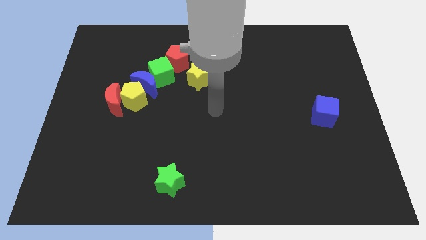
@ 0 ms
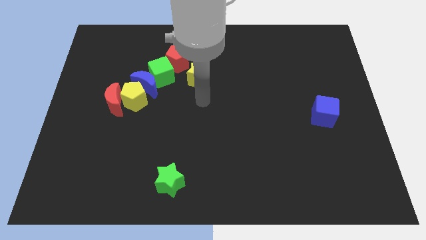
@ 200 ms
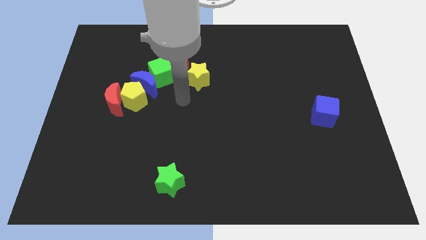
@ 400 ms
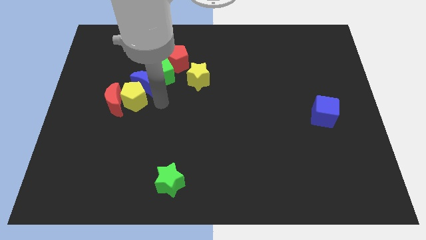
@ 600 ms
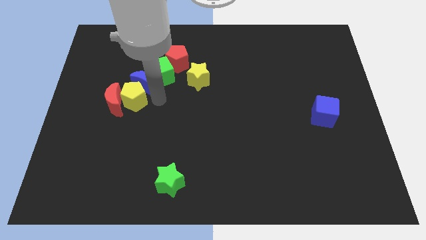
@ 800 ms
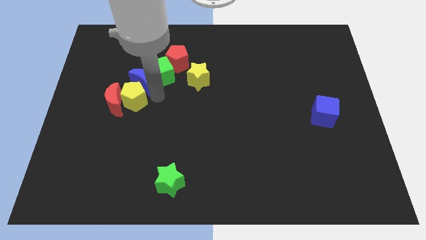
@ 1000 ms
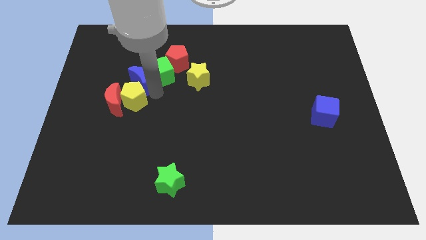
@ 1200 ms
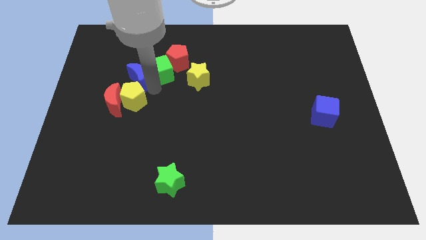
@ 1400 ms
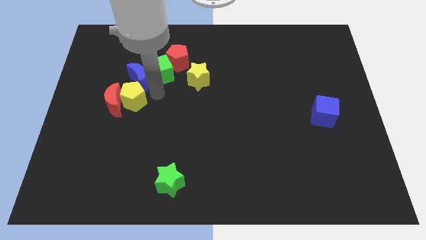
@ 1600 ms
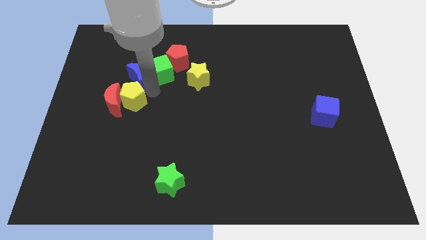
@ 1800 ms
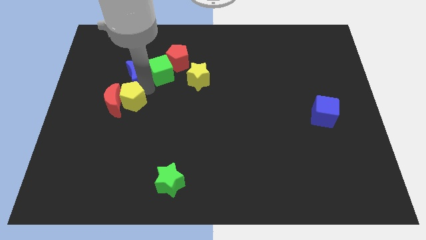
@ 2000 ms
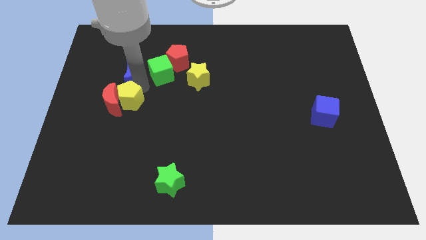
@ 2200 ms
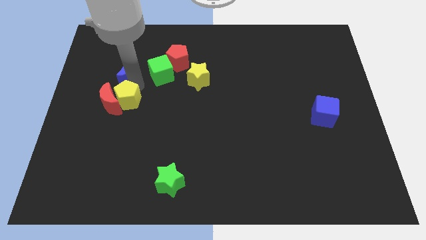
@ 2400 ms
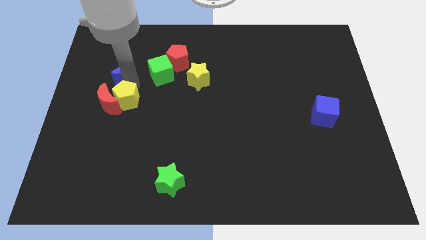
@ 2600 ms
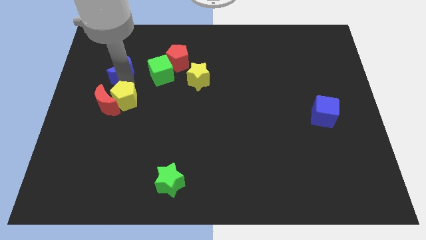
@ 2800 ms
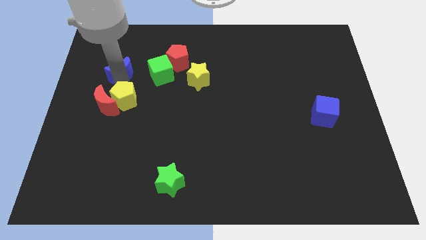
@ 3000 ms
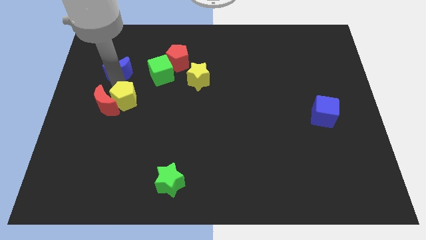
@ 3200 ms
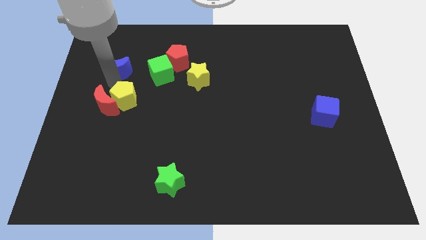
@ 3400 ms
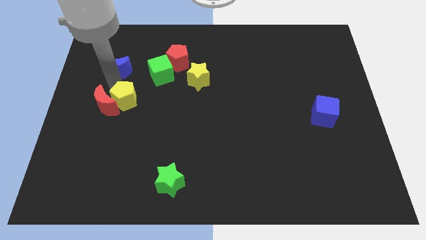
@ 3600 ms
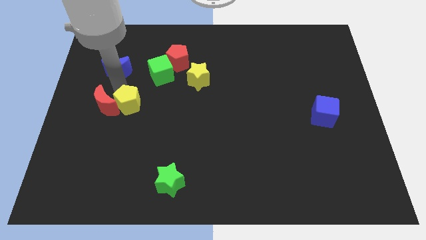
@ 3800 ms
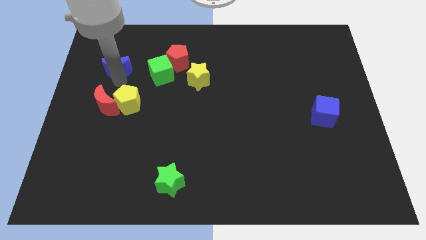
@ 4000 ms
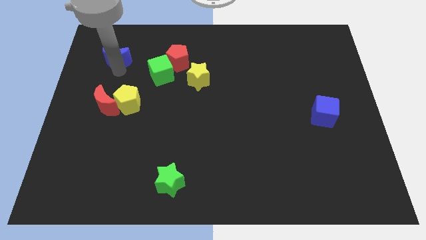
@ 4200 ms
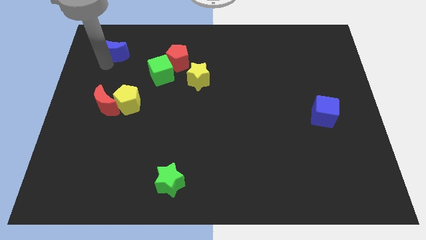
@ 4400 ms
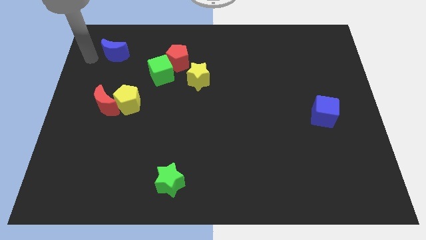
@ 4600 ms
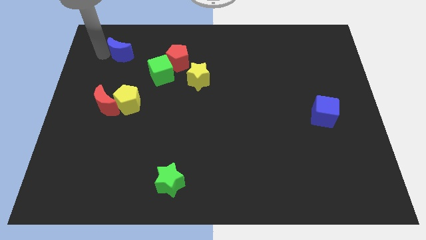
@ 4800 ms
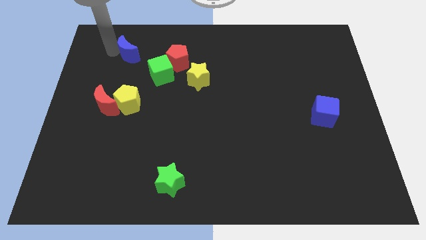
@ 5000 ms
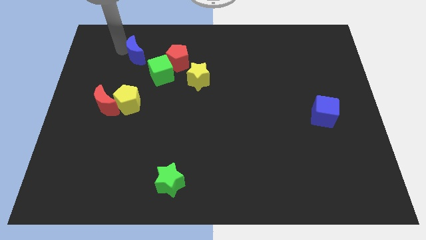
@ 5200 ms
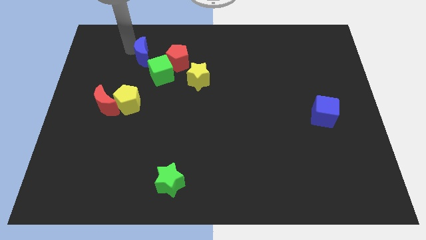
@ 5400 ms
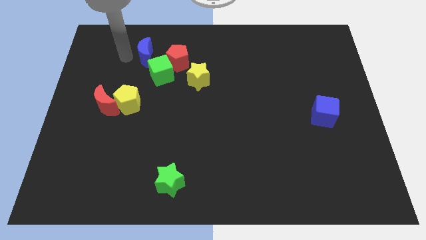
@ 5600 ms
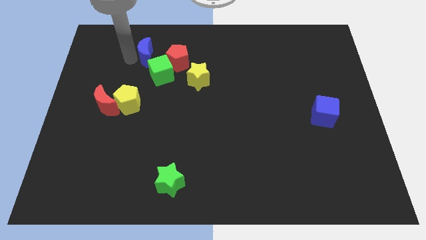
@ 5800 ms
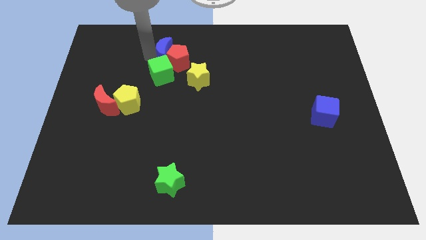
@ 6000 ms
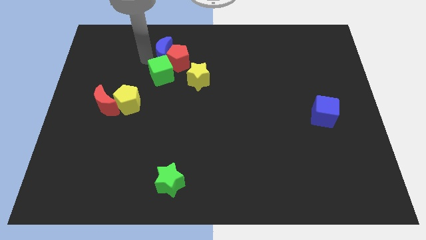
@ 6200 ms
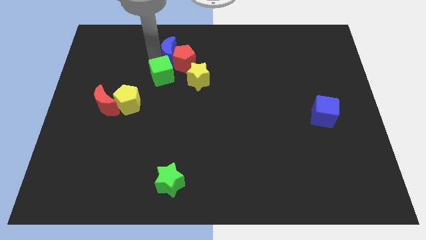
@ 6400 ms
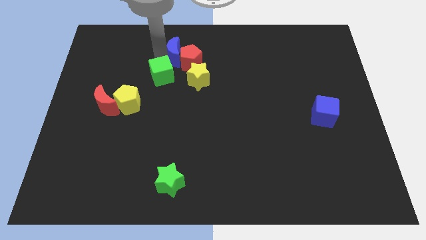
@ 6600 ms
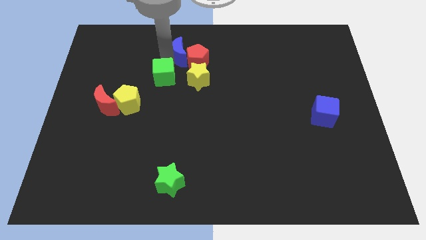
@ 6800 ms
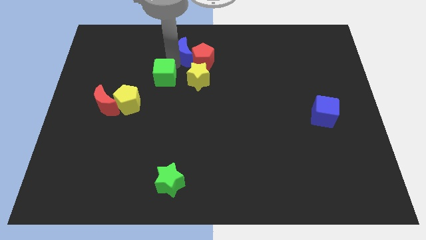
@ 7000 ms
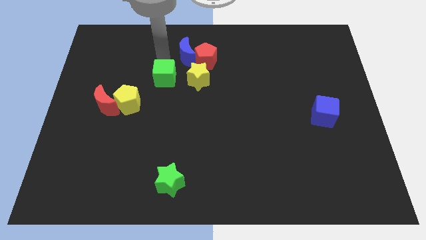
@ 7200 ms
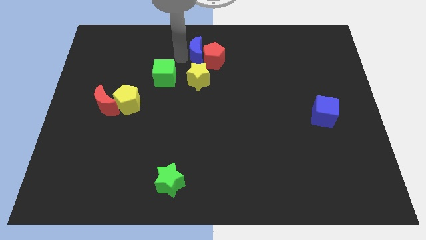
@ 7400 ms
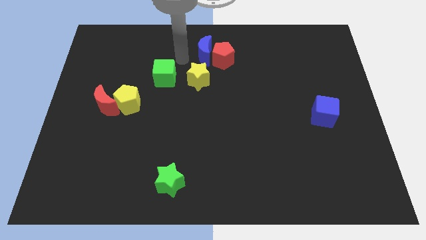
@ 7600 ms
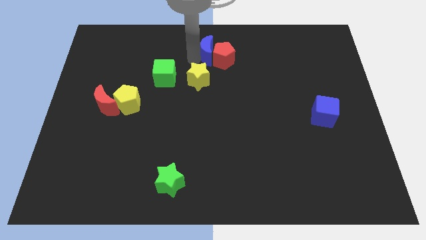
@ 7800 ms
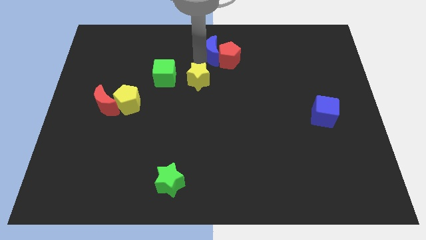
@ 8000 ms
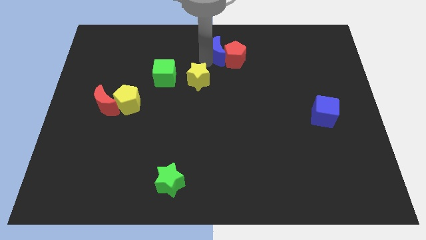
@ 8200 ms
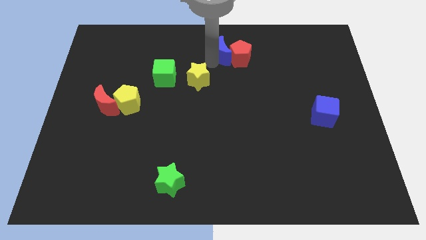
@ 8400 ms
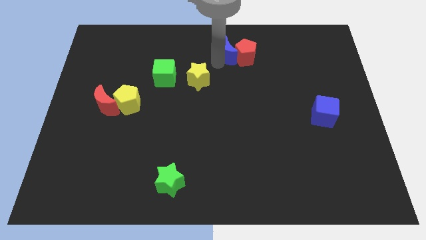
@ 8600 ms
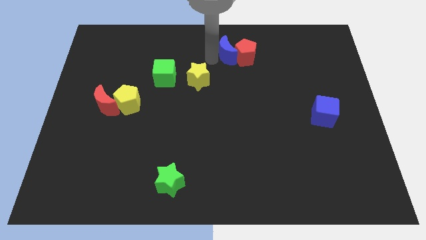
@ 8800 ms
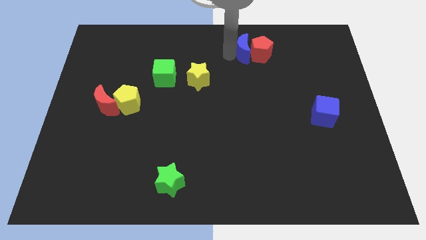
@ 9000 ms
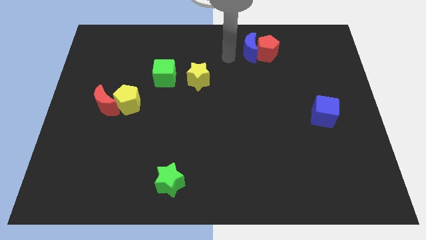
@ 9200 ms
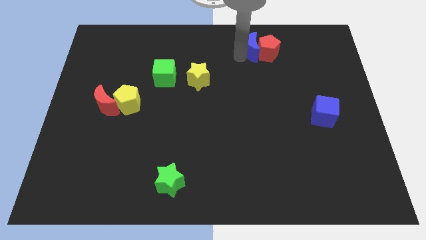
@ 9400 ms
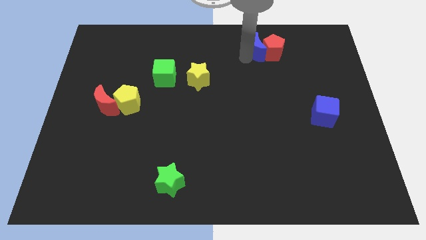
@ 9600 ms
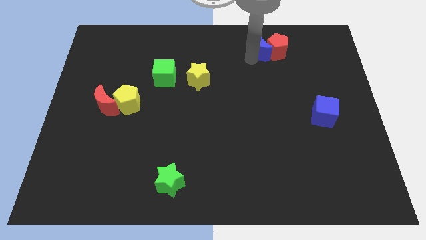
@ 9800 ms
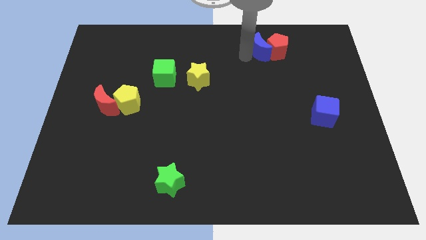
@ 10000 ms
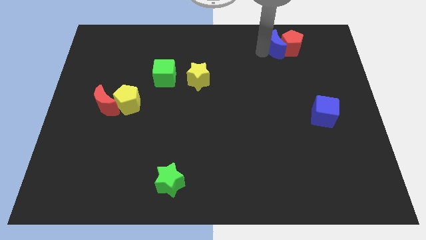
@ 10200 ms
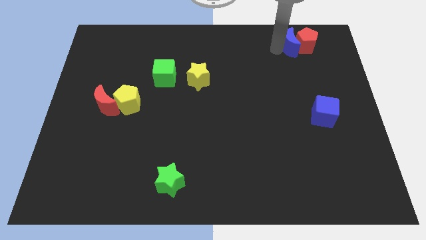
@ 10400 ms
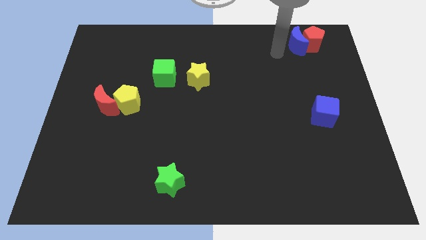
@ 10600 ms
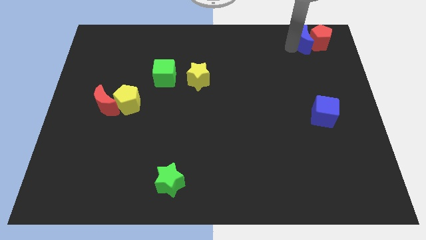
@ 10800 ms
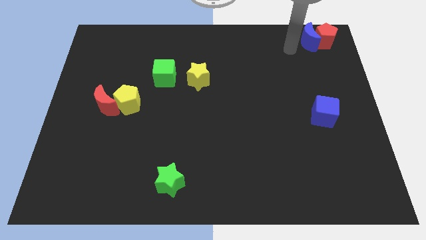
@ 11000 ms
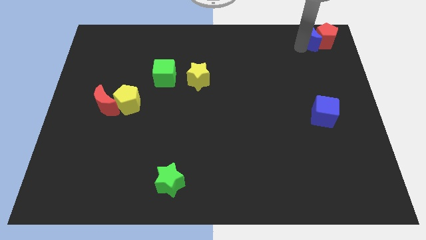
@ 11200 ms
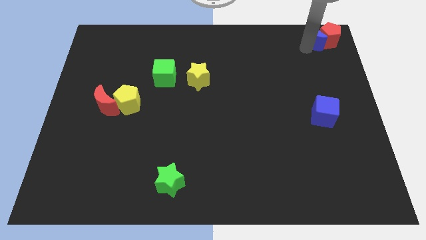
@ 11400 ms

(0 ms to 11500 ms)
push the blue moon to the upper right corner
